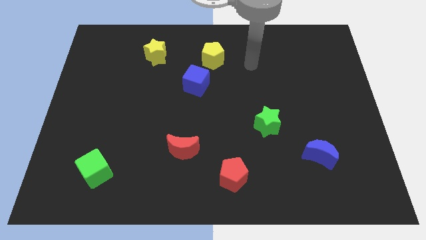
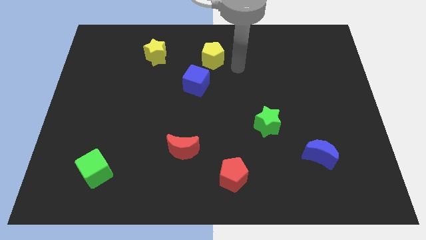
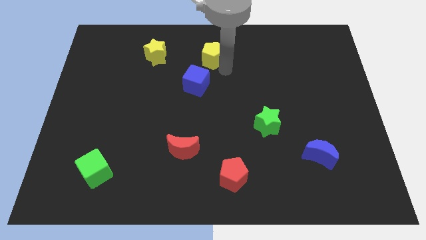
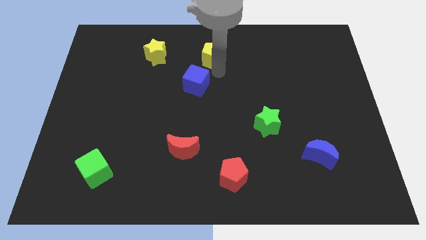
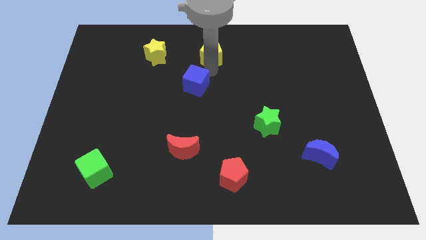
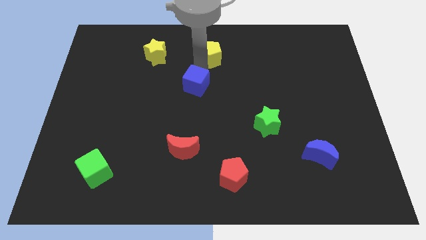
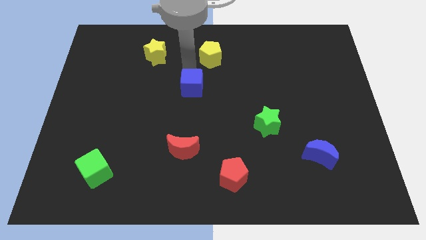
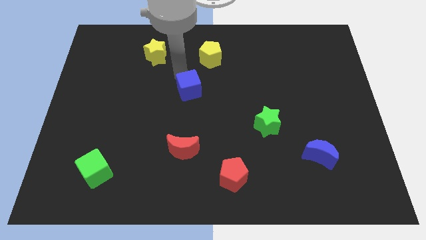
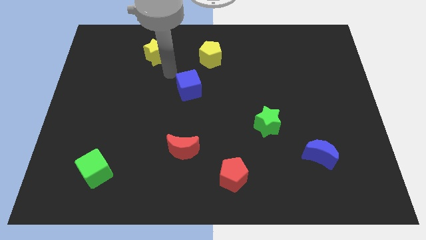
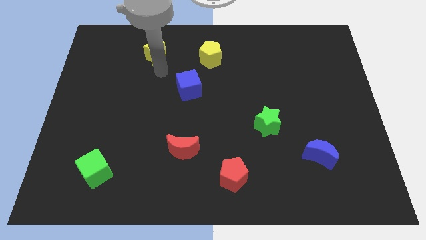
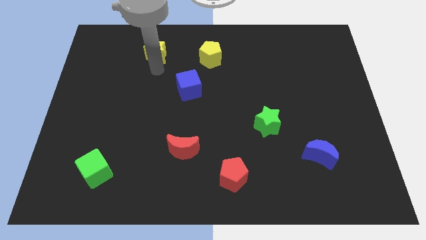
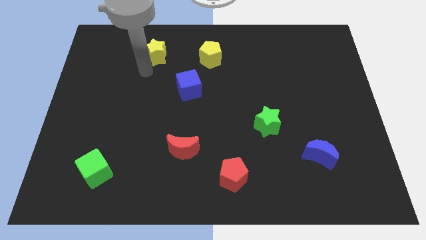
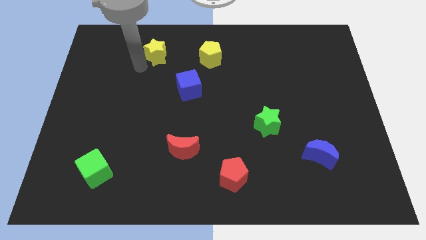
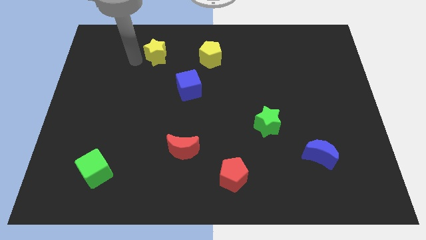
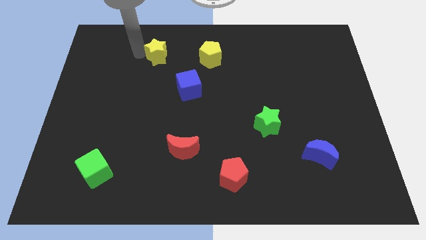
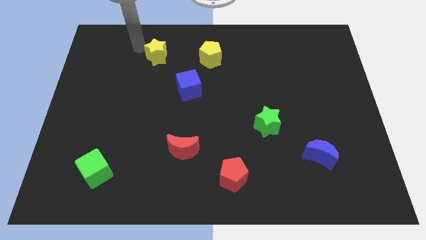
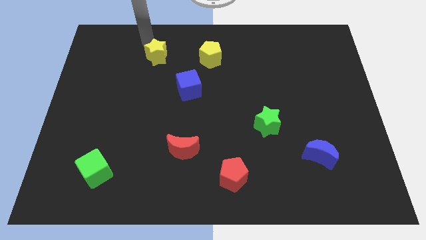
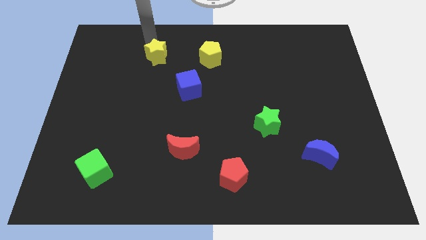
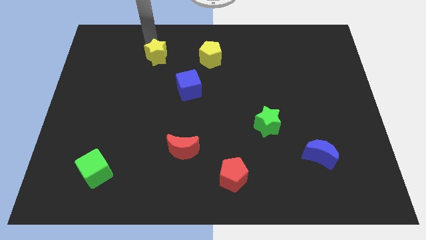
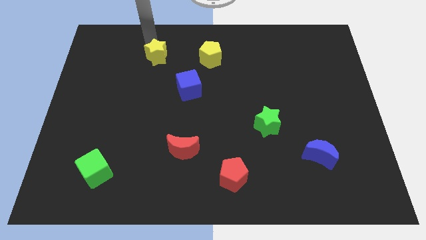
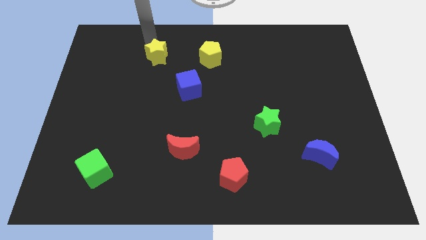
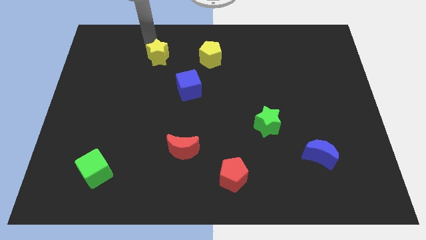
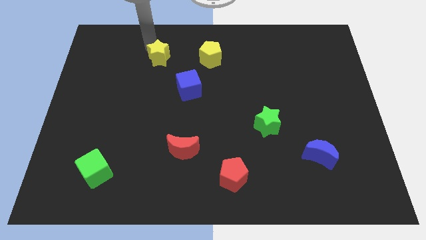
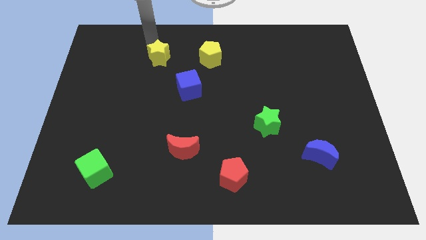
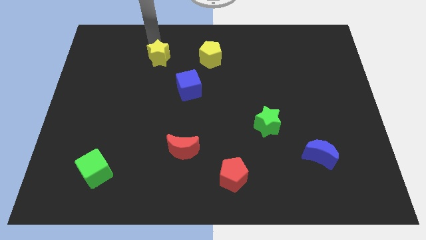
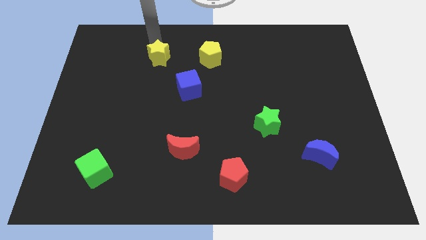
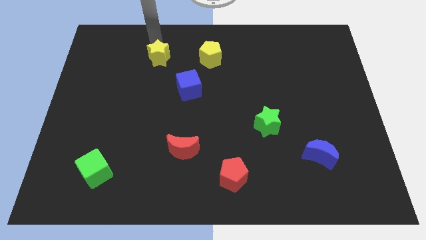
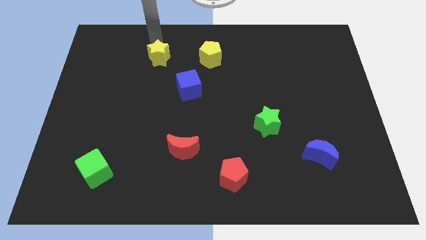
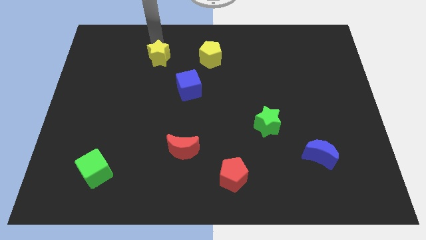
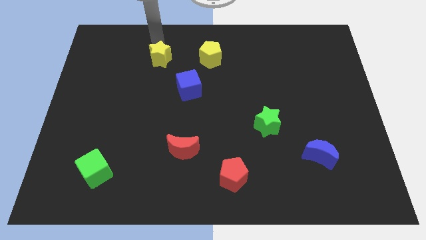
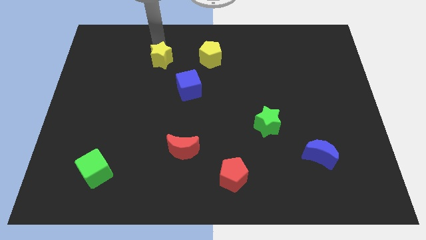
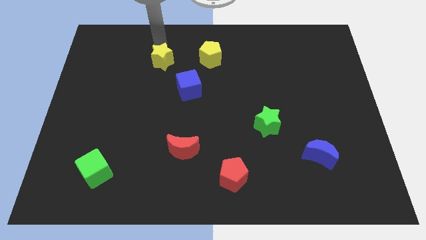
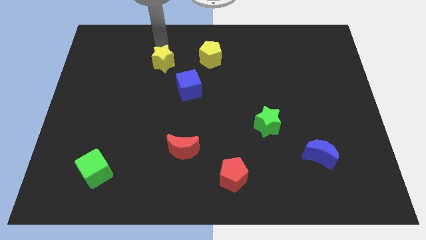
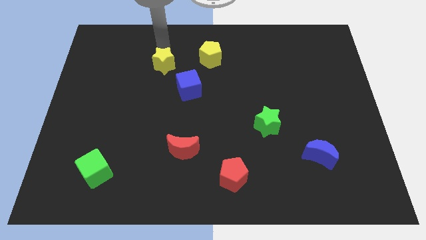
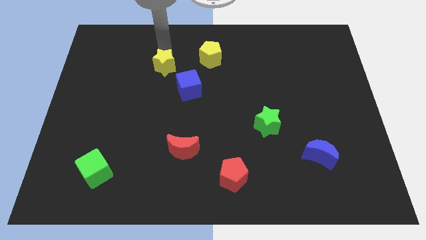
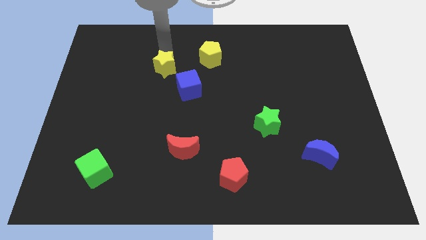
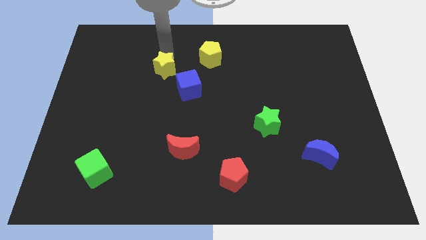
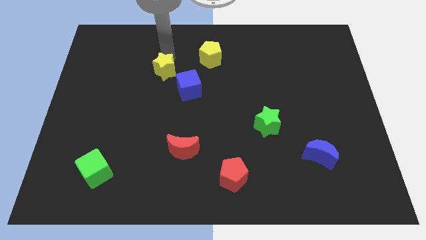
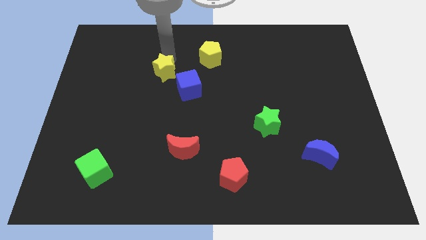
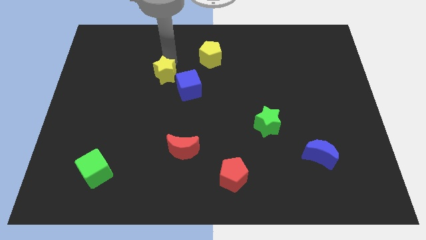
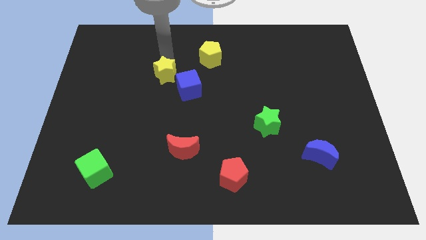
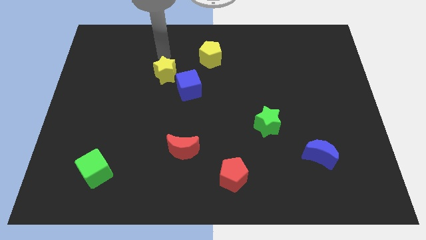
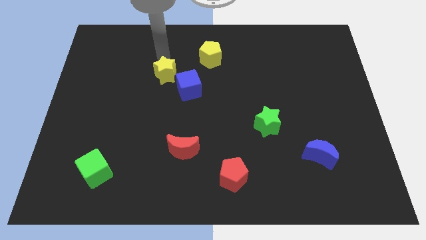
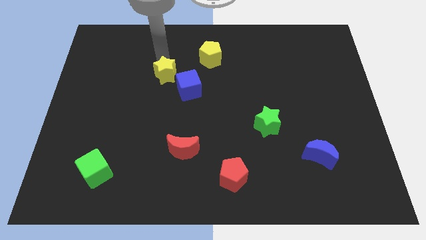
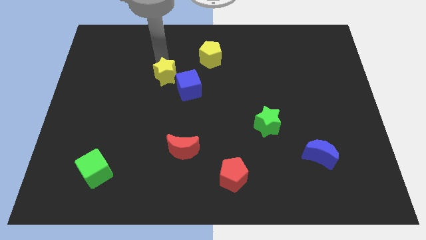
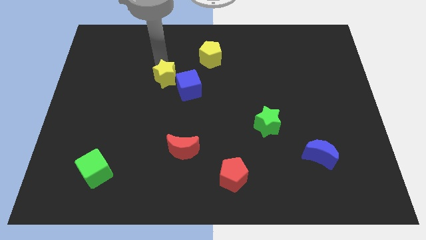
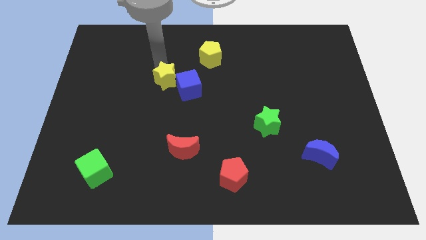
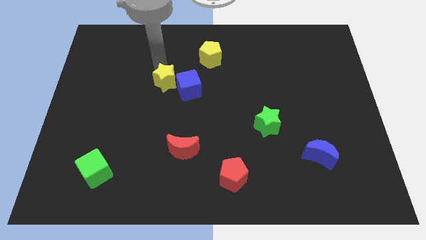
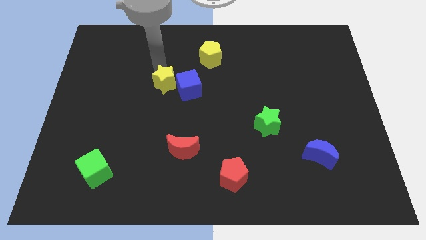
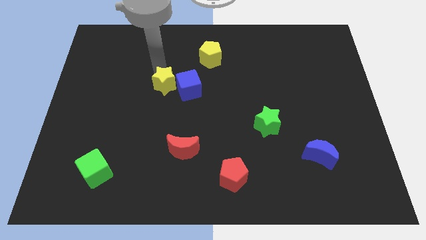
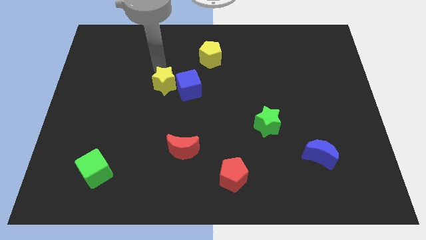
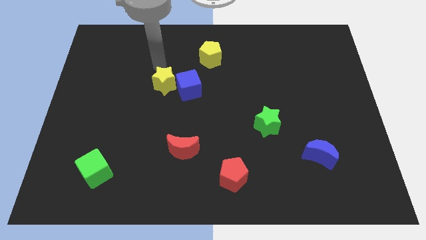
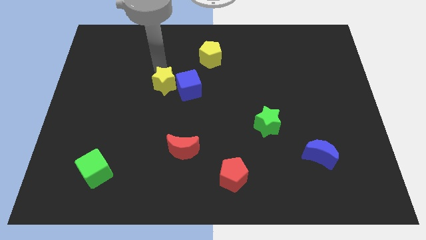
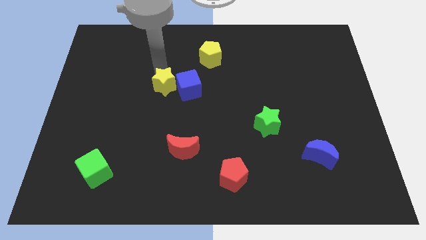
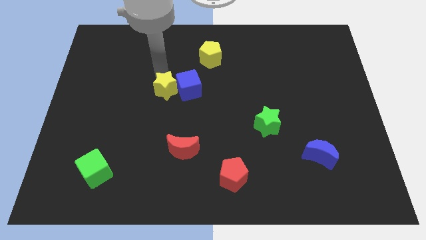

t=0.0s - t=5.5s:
move the yellow star to the center of the board

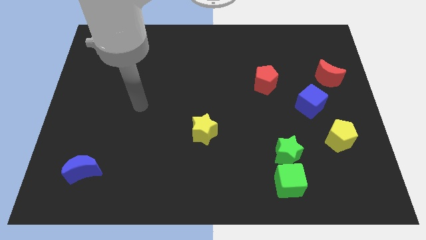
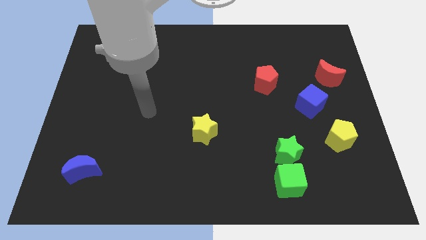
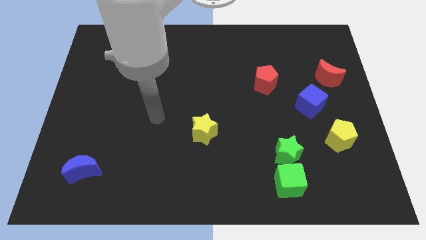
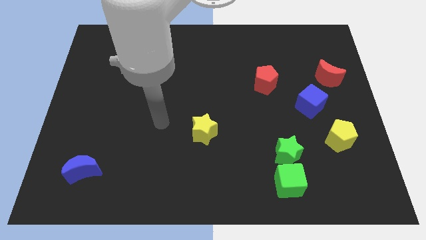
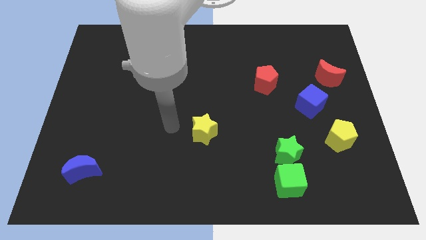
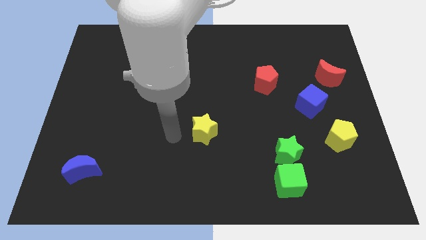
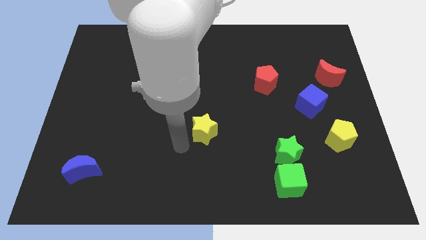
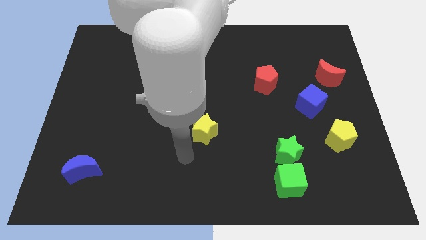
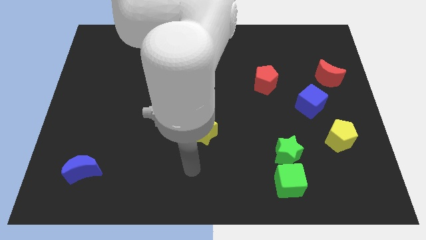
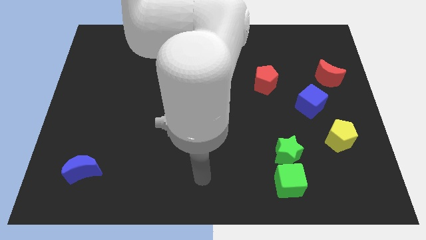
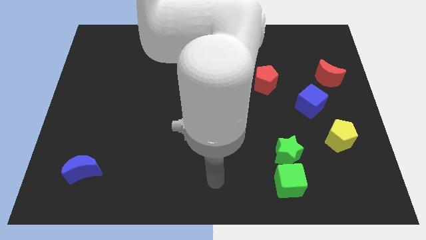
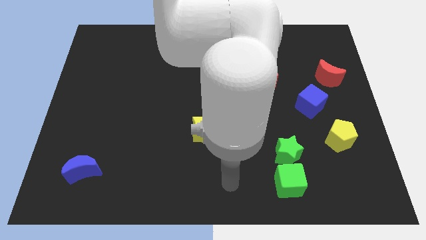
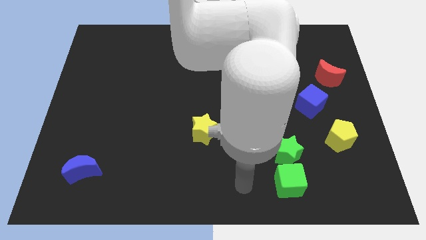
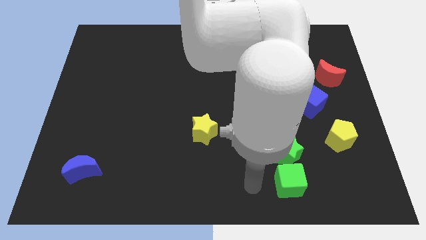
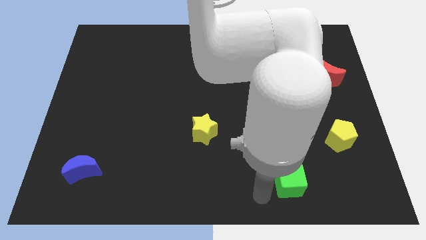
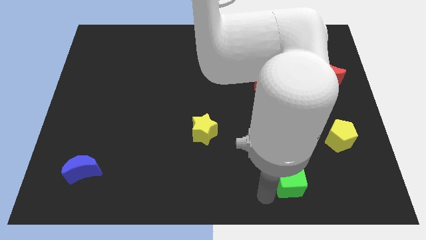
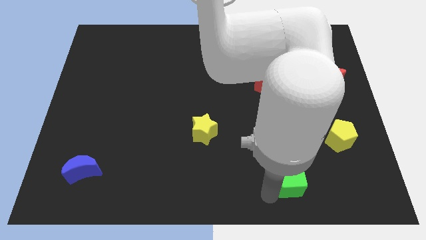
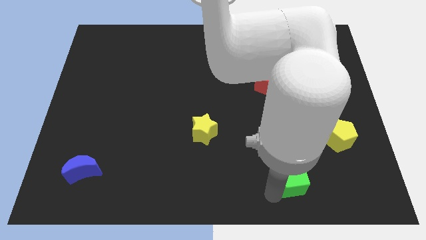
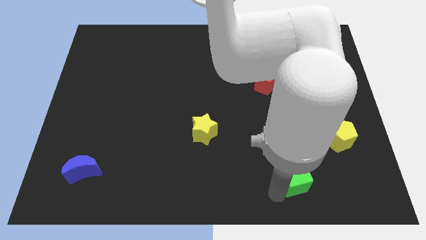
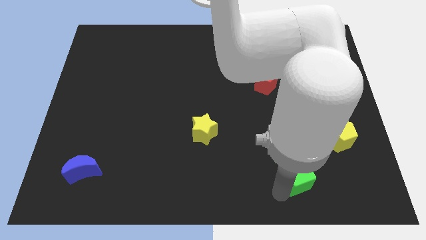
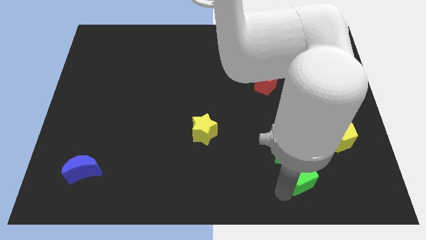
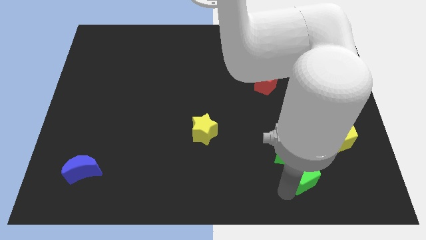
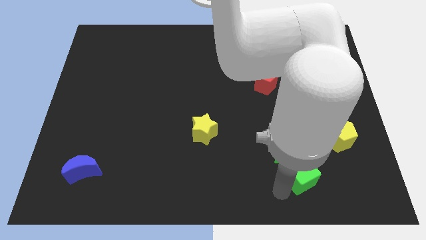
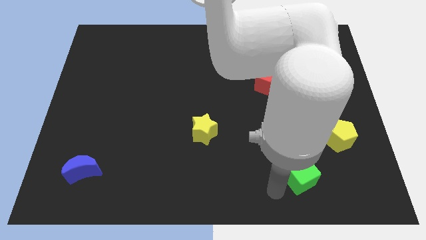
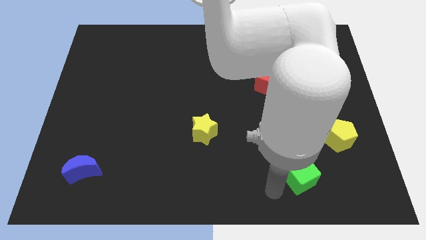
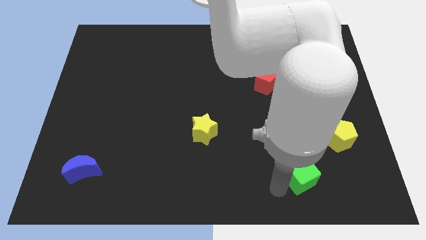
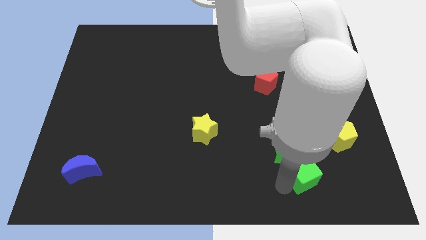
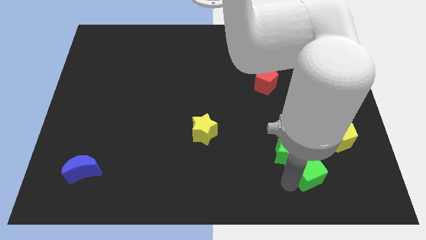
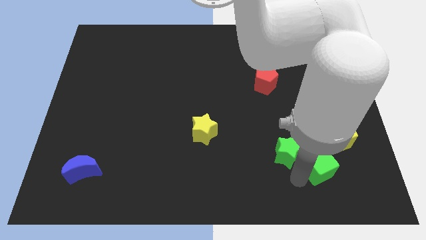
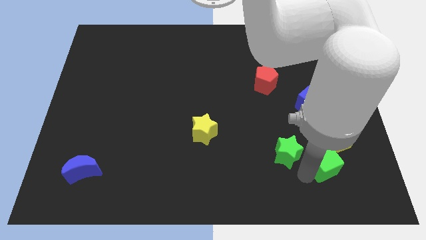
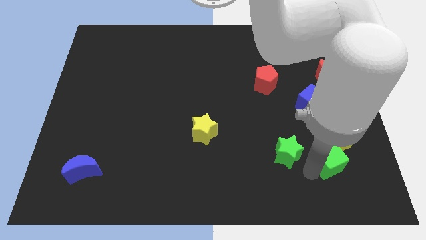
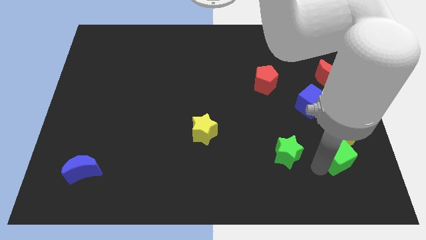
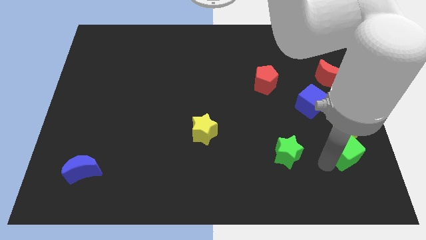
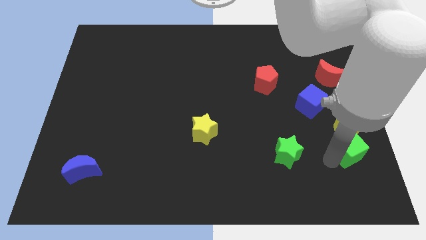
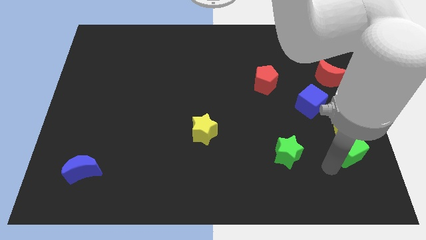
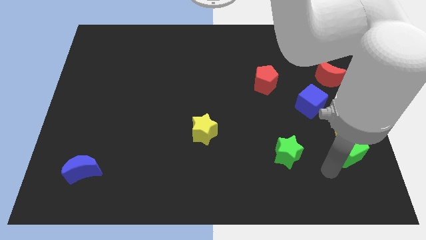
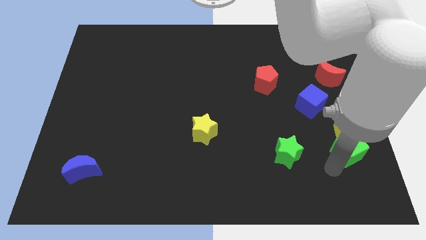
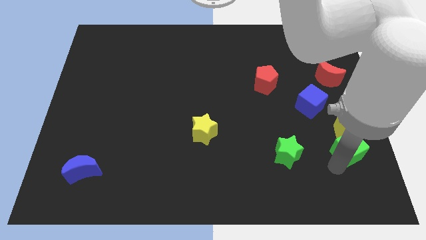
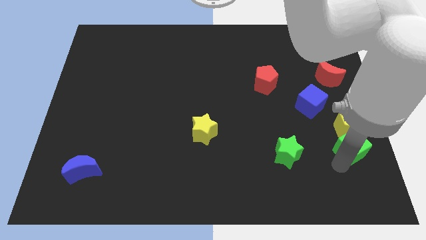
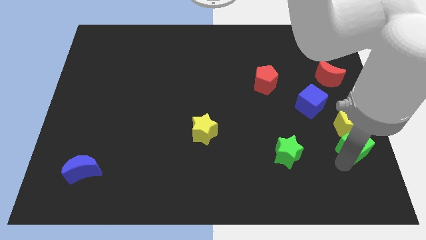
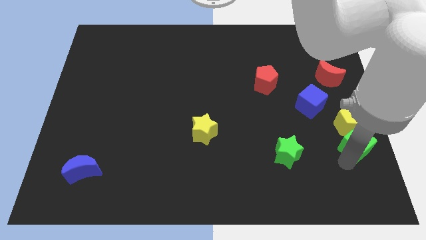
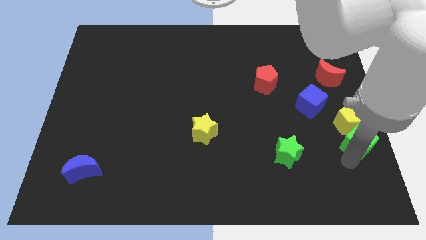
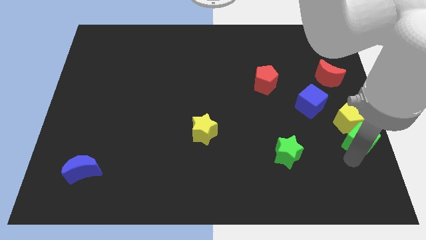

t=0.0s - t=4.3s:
slide the green cube to the center right
